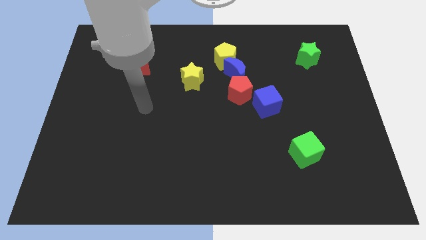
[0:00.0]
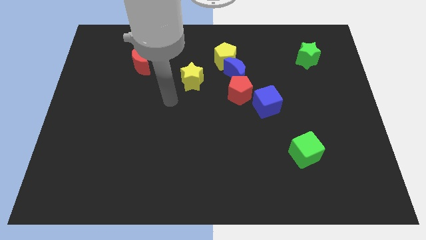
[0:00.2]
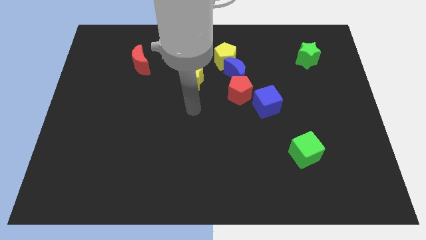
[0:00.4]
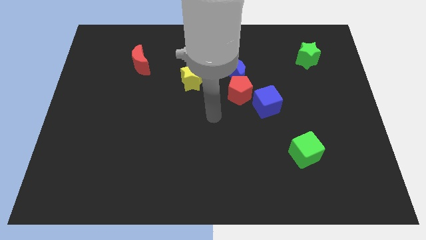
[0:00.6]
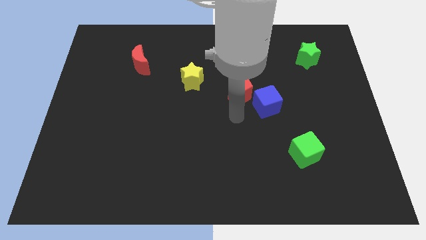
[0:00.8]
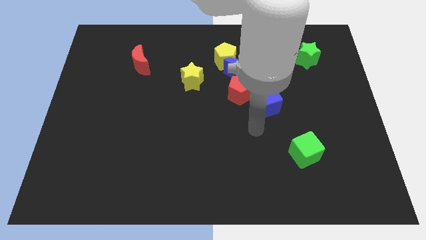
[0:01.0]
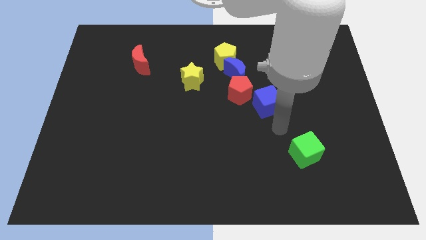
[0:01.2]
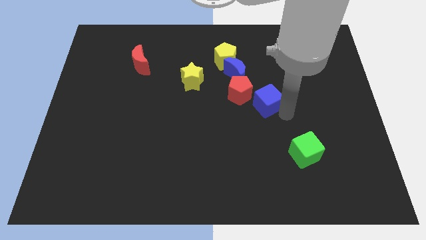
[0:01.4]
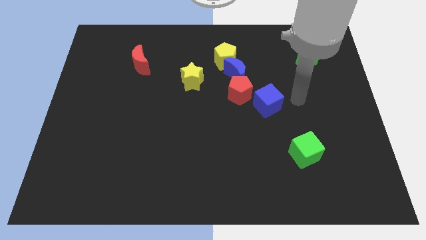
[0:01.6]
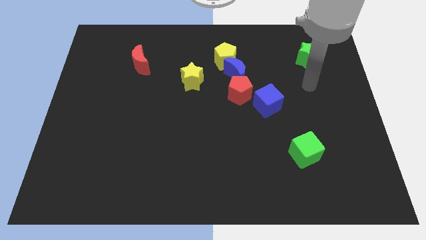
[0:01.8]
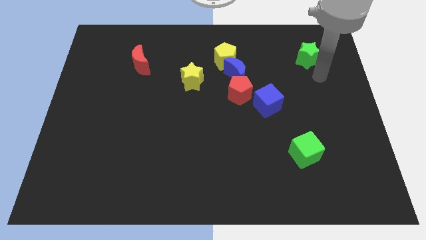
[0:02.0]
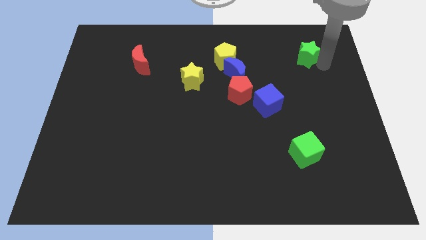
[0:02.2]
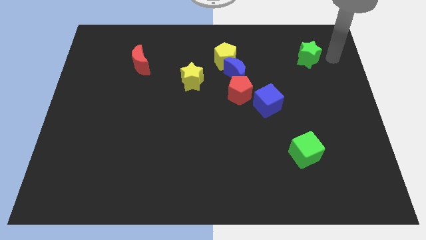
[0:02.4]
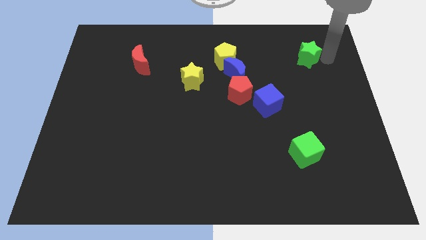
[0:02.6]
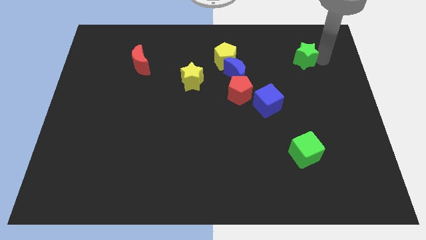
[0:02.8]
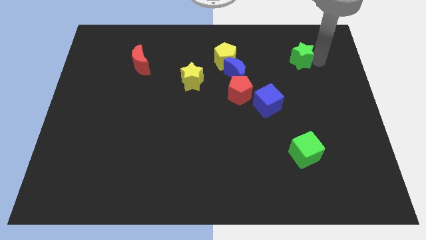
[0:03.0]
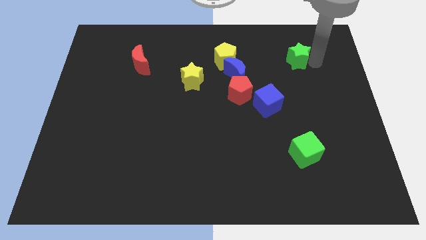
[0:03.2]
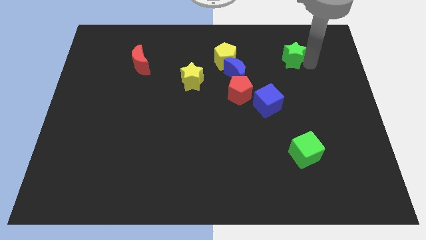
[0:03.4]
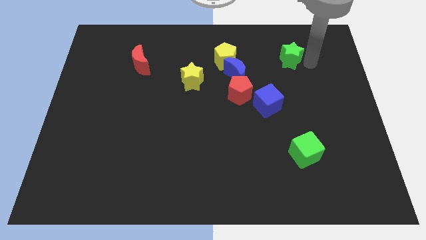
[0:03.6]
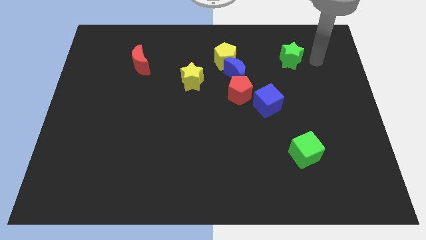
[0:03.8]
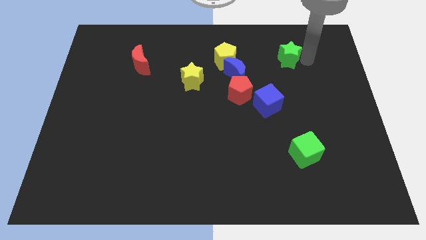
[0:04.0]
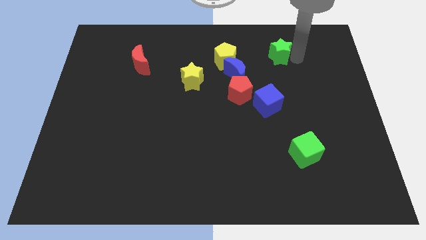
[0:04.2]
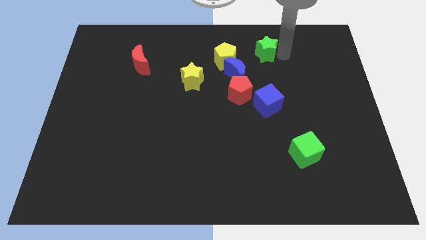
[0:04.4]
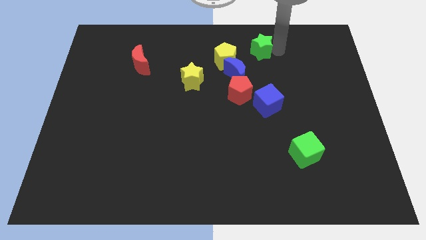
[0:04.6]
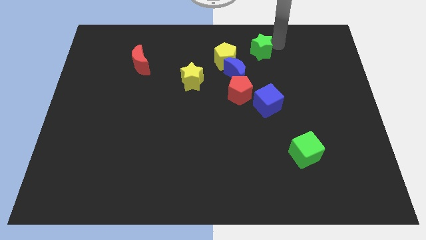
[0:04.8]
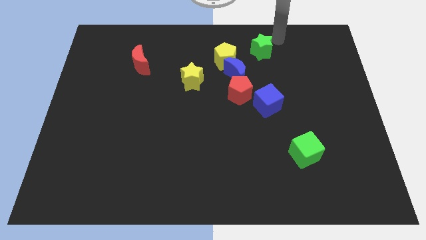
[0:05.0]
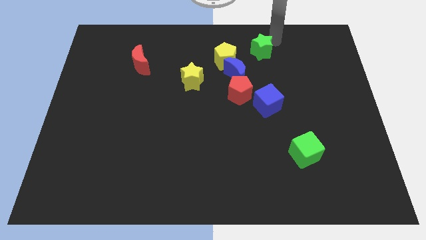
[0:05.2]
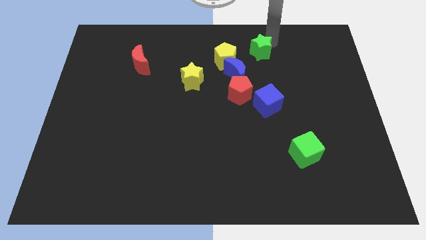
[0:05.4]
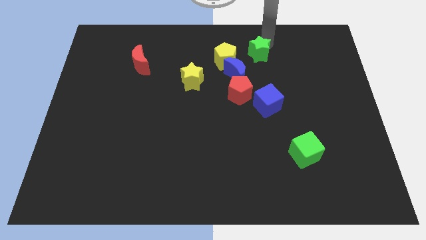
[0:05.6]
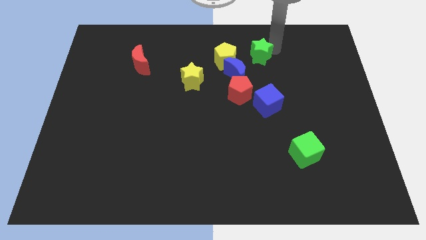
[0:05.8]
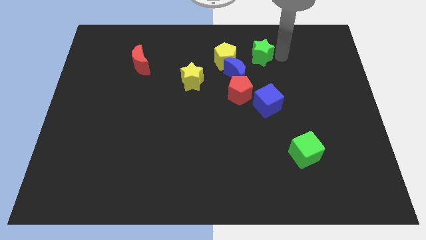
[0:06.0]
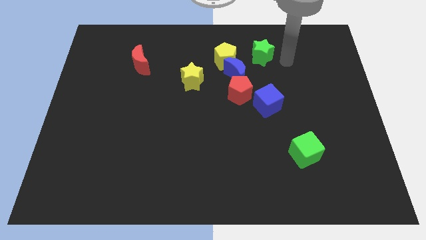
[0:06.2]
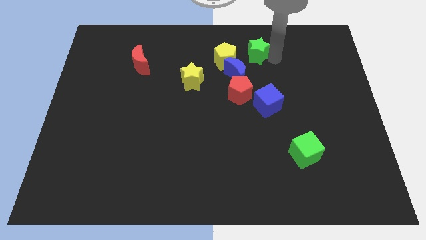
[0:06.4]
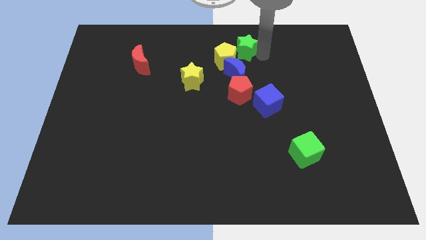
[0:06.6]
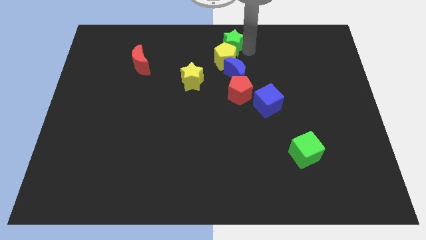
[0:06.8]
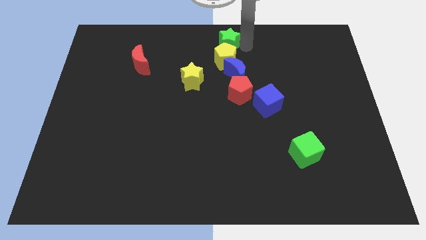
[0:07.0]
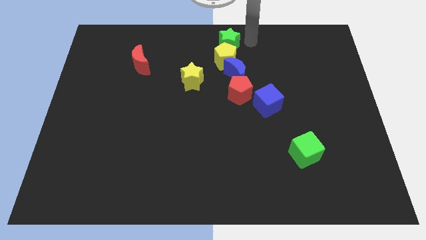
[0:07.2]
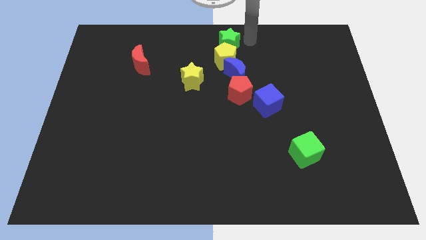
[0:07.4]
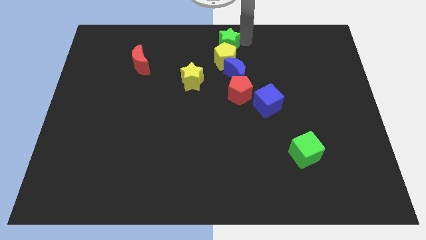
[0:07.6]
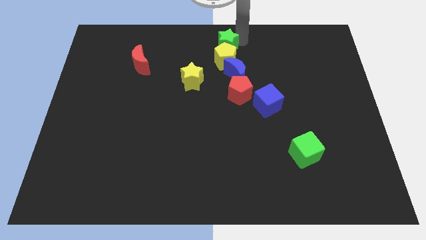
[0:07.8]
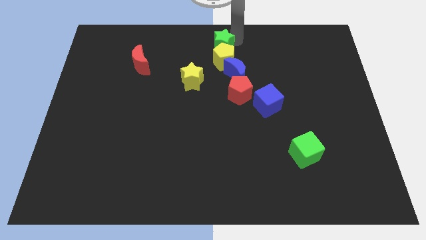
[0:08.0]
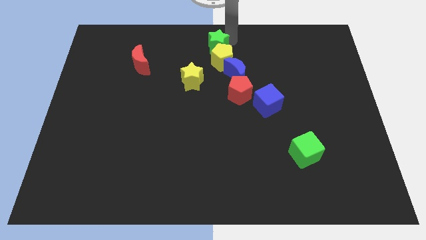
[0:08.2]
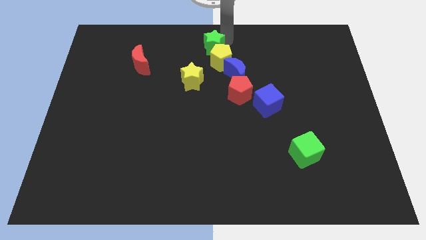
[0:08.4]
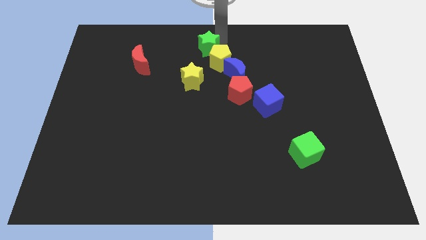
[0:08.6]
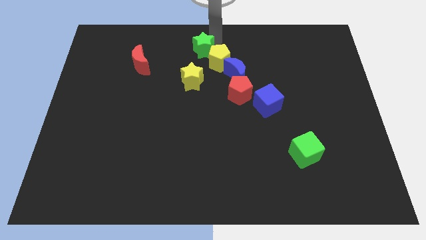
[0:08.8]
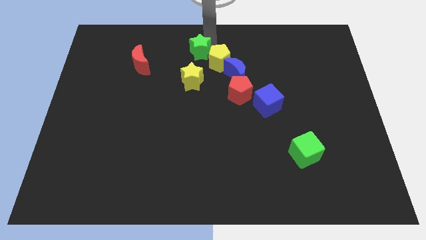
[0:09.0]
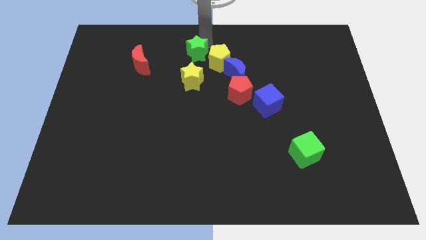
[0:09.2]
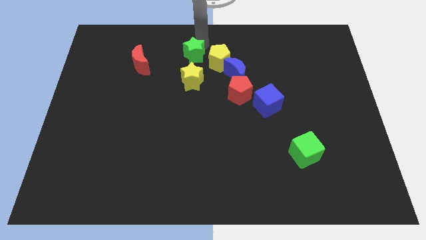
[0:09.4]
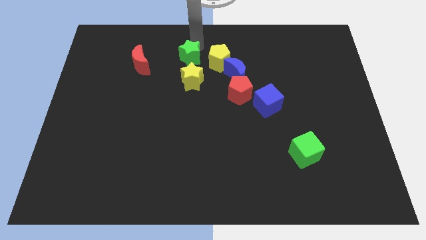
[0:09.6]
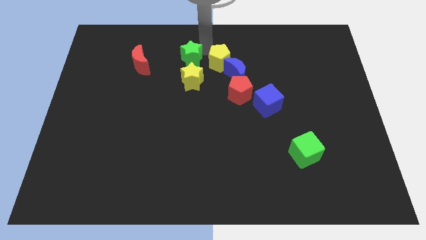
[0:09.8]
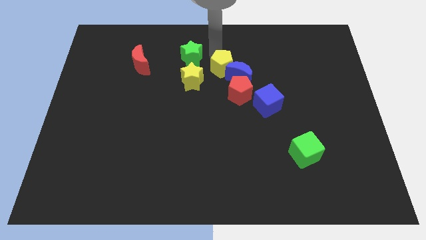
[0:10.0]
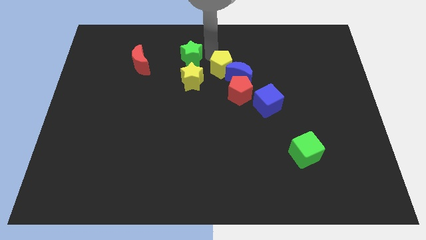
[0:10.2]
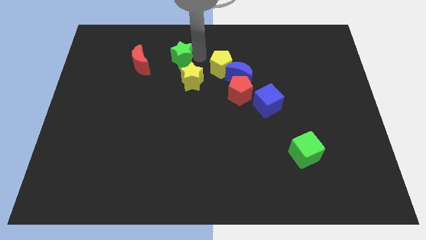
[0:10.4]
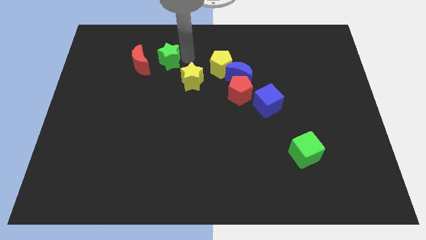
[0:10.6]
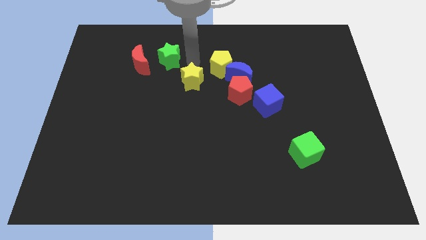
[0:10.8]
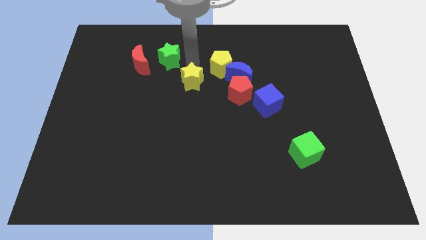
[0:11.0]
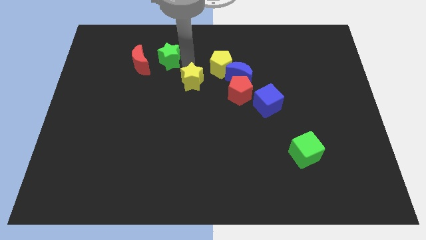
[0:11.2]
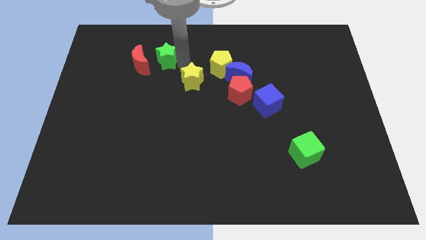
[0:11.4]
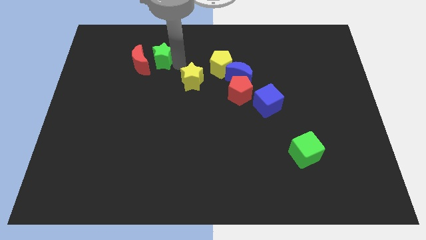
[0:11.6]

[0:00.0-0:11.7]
move the green star towards the red moon

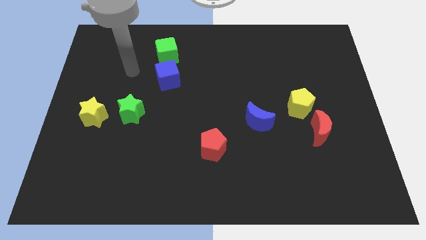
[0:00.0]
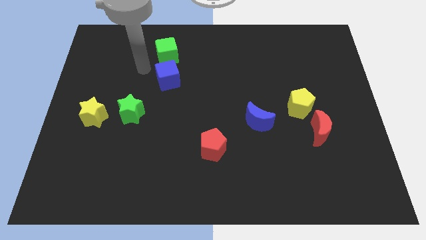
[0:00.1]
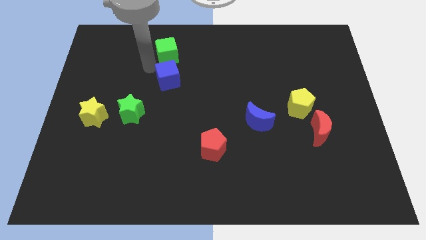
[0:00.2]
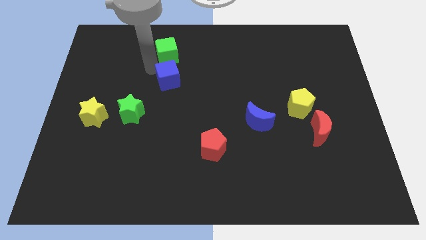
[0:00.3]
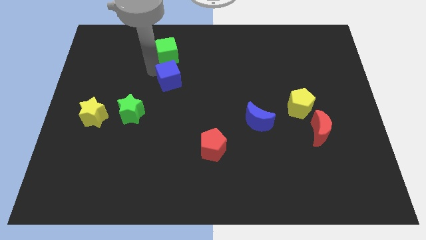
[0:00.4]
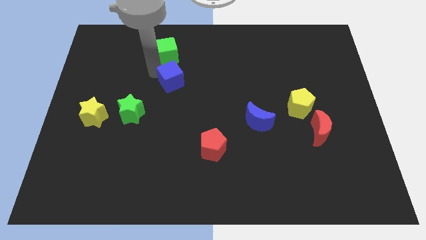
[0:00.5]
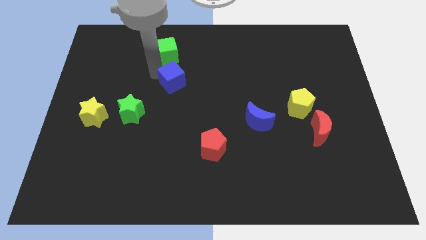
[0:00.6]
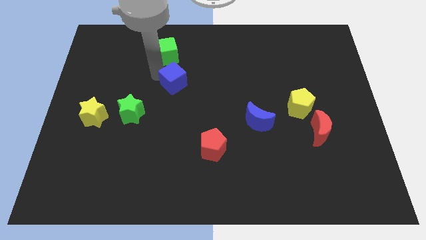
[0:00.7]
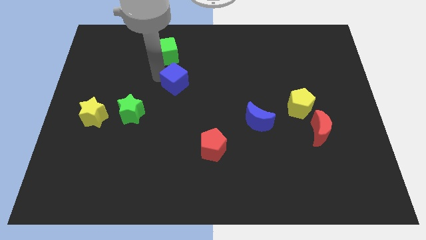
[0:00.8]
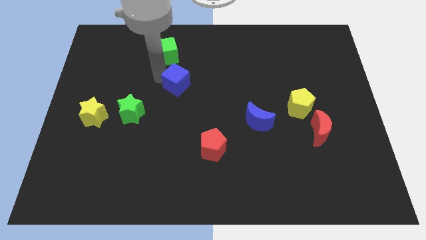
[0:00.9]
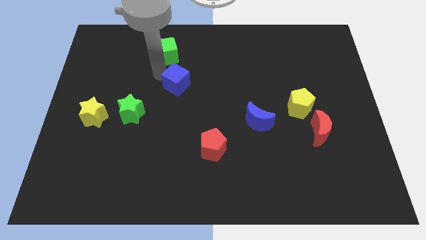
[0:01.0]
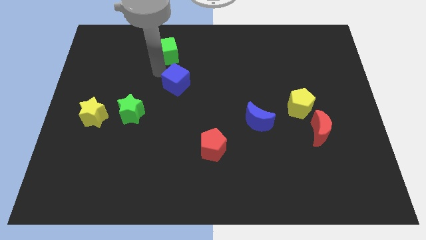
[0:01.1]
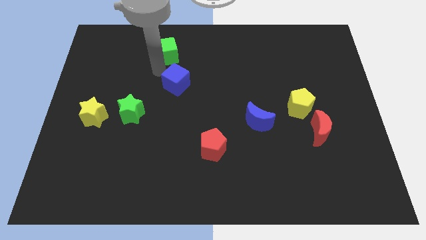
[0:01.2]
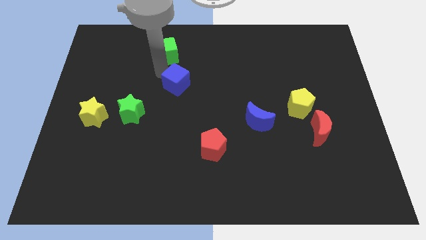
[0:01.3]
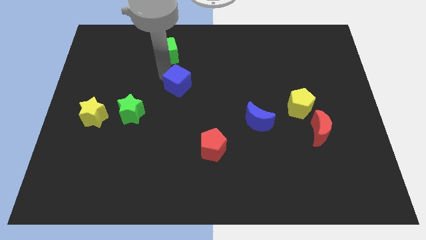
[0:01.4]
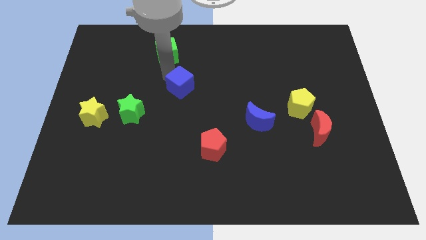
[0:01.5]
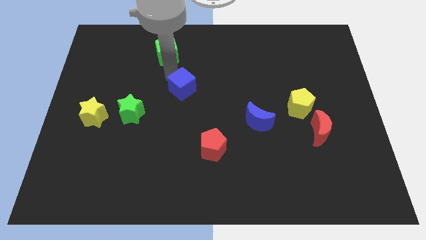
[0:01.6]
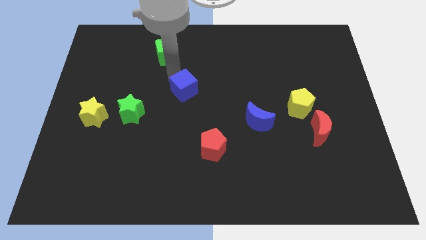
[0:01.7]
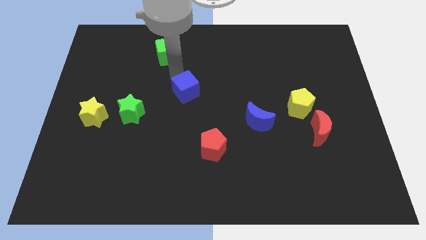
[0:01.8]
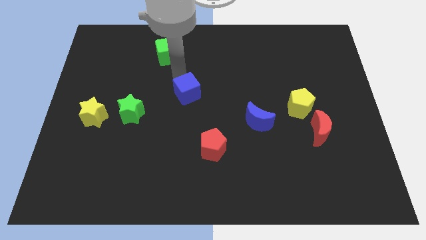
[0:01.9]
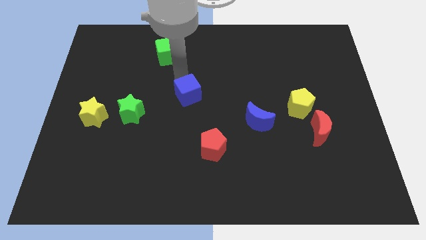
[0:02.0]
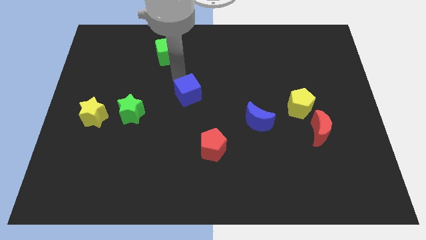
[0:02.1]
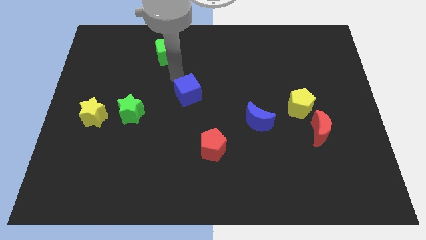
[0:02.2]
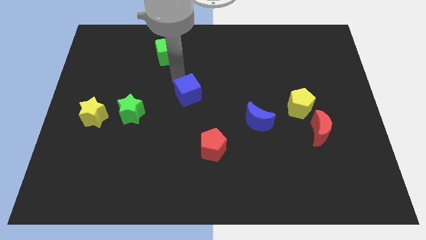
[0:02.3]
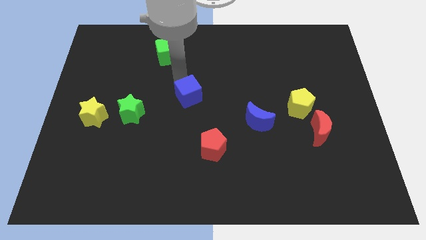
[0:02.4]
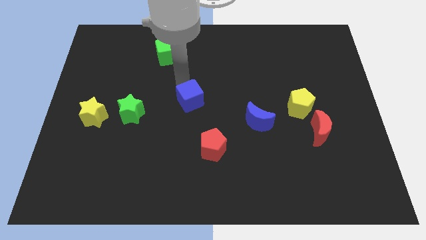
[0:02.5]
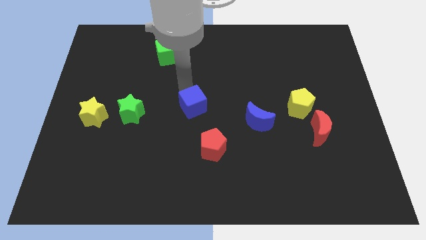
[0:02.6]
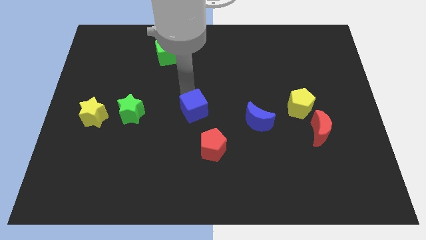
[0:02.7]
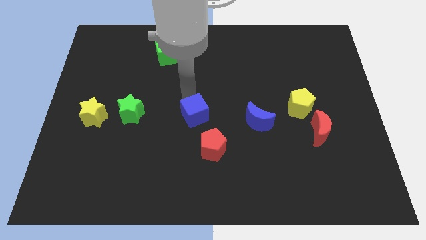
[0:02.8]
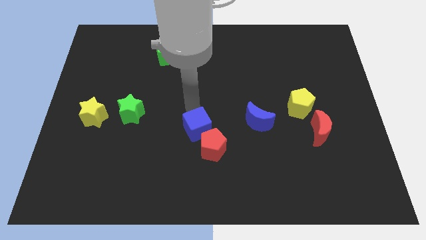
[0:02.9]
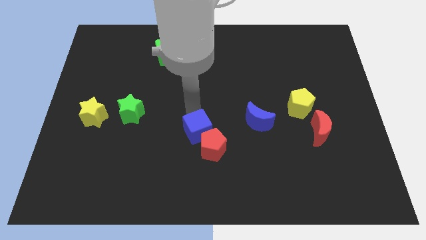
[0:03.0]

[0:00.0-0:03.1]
put the blue cube close to the red pentagon
